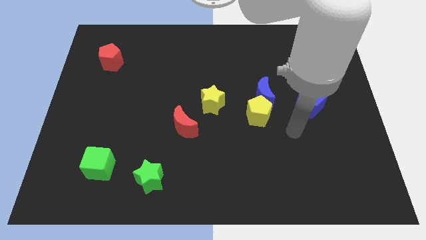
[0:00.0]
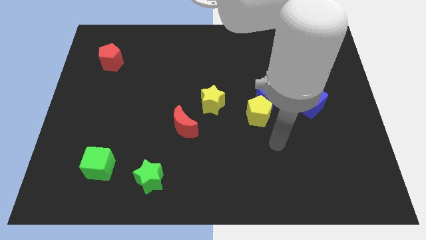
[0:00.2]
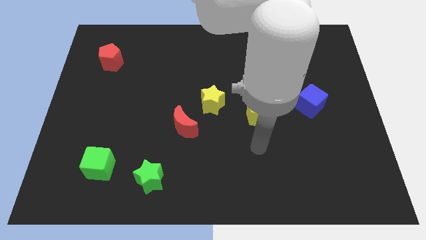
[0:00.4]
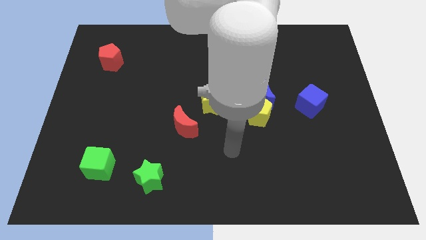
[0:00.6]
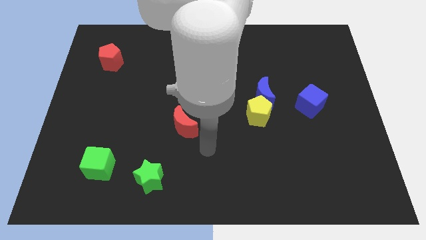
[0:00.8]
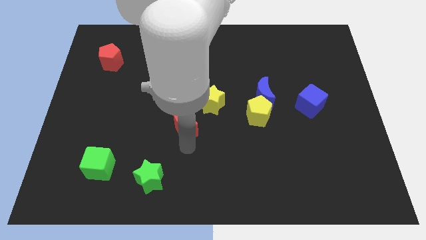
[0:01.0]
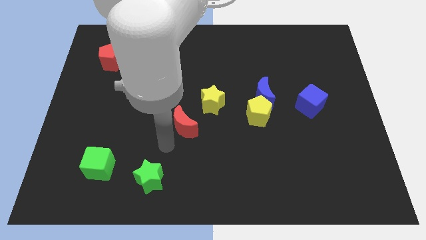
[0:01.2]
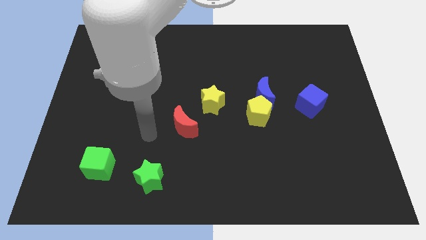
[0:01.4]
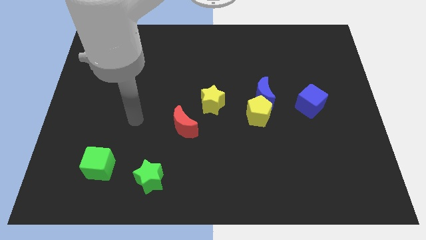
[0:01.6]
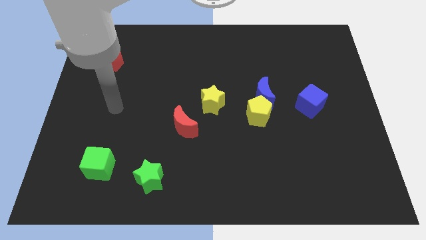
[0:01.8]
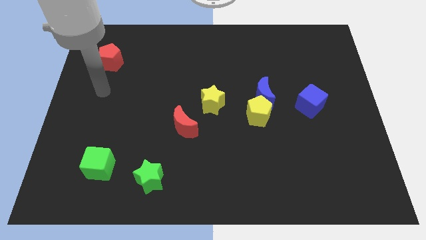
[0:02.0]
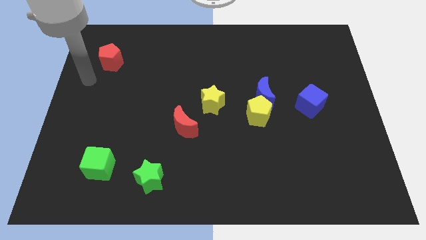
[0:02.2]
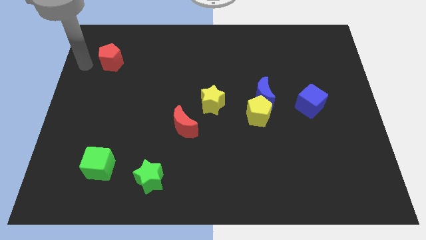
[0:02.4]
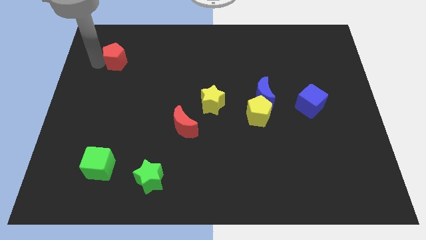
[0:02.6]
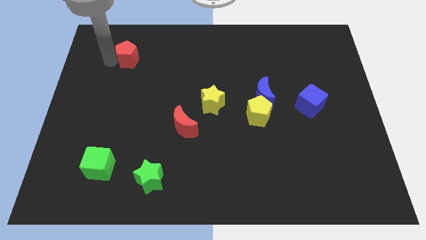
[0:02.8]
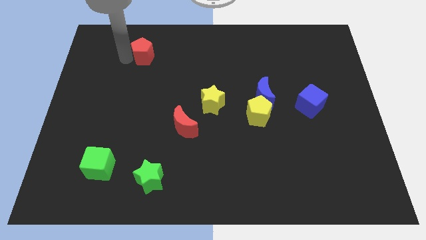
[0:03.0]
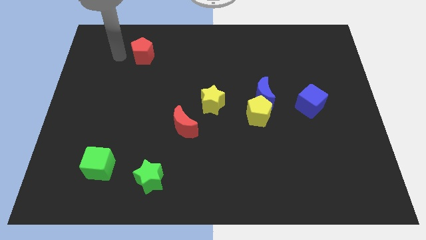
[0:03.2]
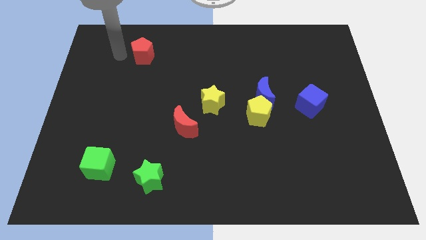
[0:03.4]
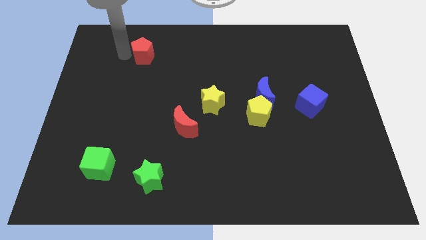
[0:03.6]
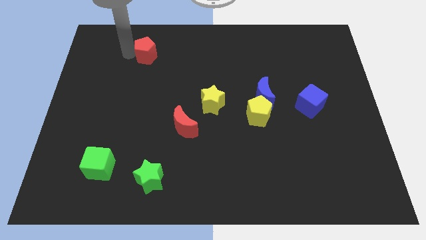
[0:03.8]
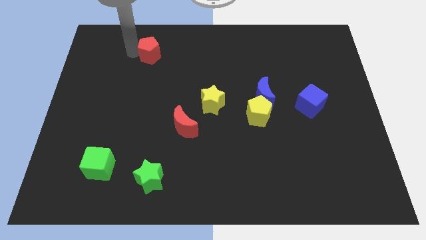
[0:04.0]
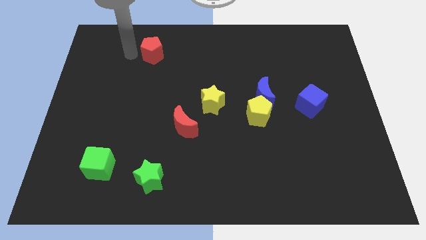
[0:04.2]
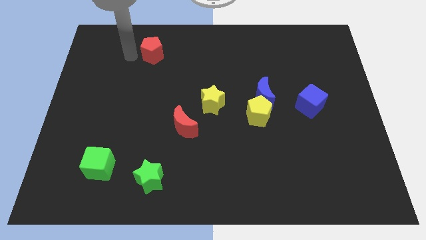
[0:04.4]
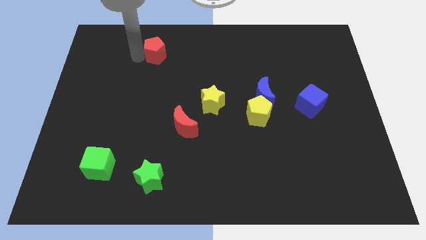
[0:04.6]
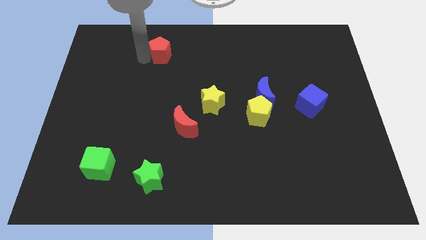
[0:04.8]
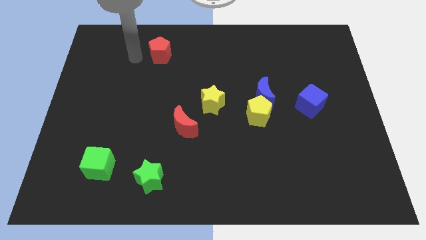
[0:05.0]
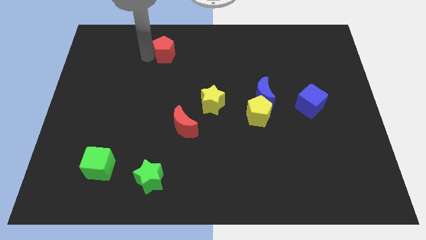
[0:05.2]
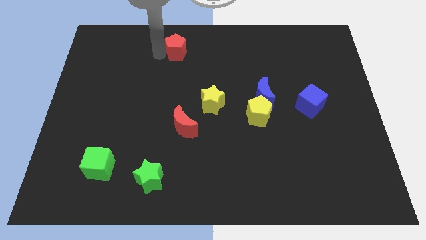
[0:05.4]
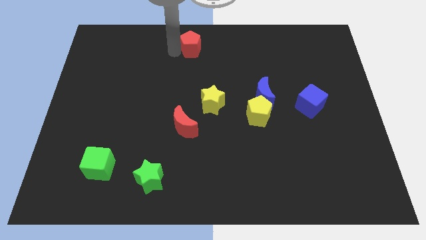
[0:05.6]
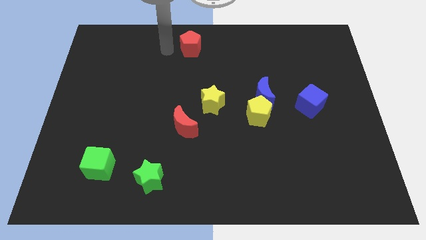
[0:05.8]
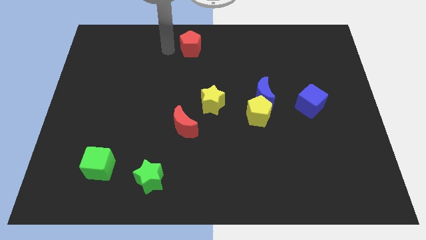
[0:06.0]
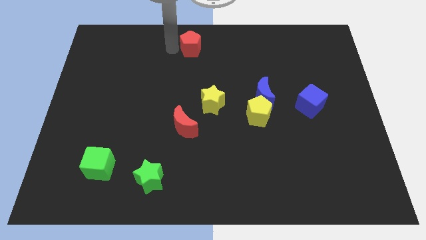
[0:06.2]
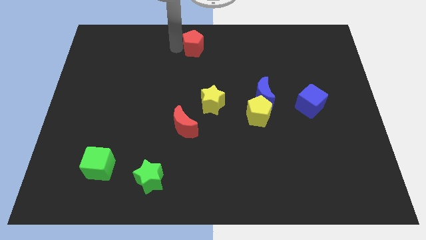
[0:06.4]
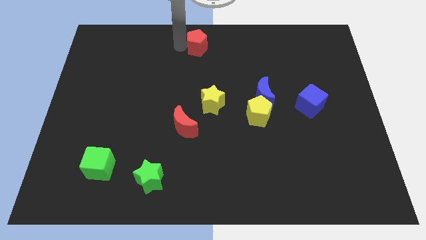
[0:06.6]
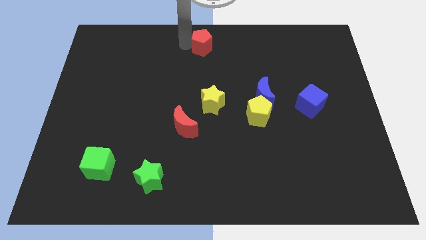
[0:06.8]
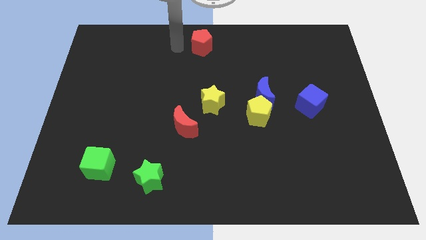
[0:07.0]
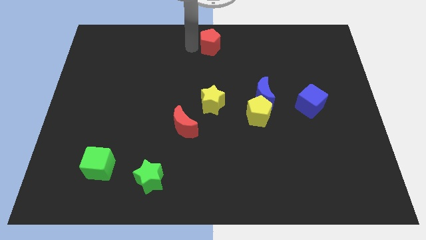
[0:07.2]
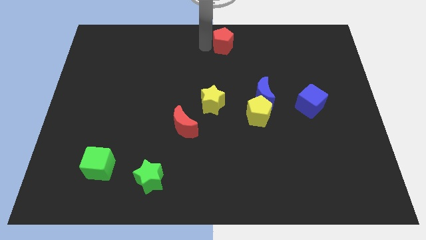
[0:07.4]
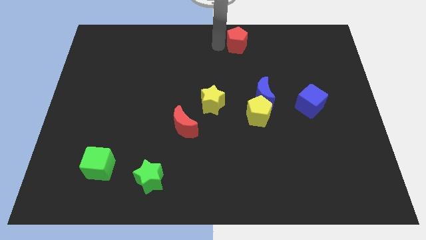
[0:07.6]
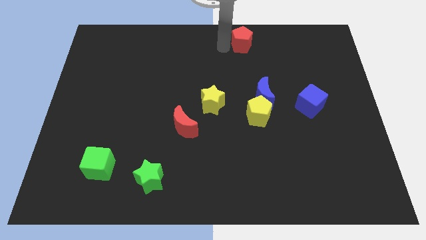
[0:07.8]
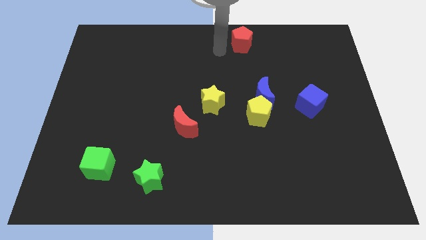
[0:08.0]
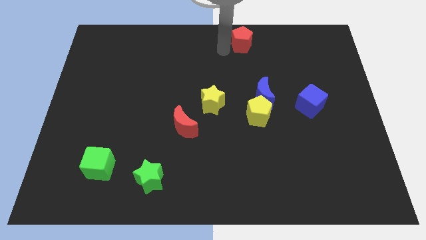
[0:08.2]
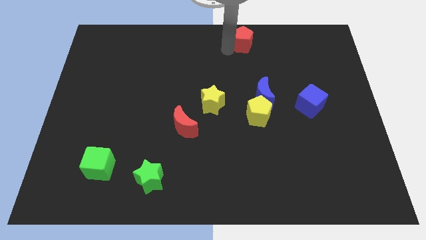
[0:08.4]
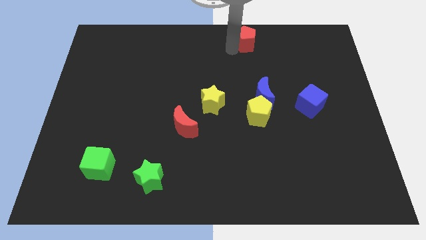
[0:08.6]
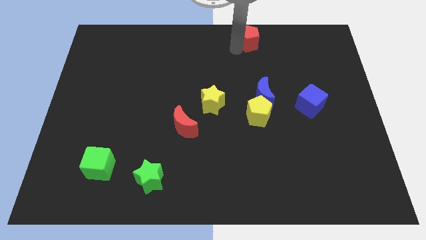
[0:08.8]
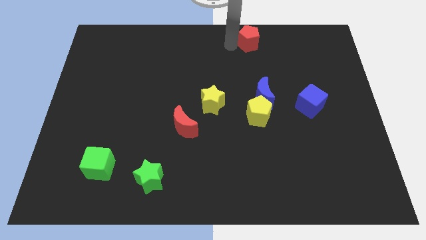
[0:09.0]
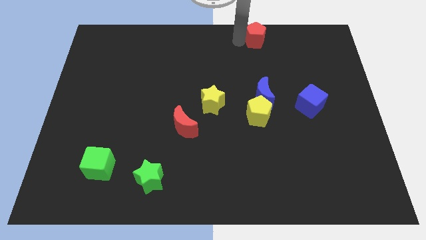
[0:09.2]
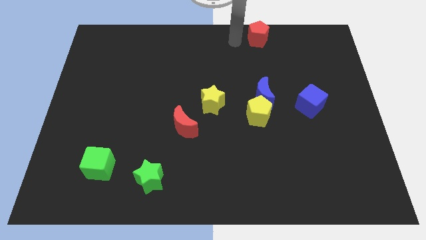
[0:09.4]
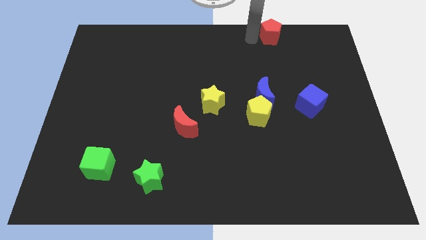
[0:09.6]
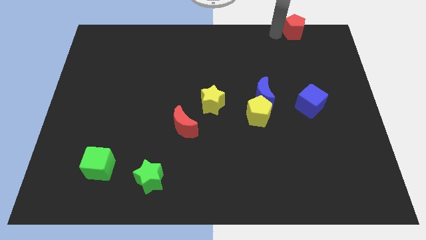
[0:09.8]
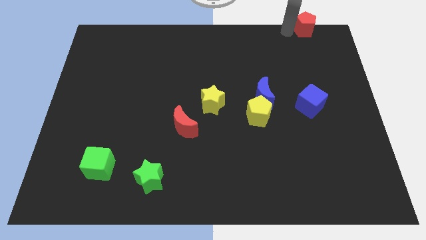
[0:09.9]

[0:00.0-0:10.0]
move the red pentagon to the top right of the board

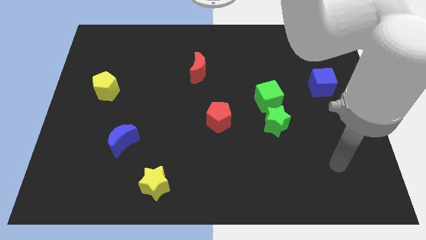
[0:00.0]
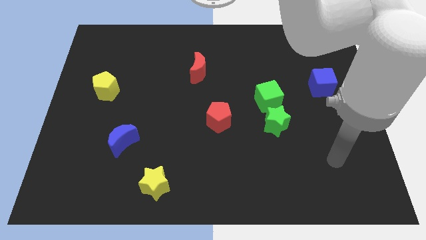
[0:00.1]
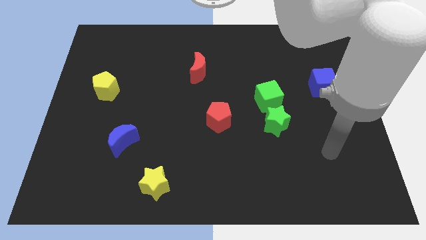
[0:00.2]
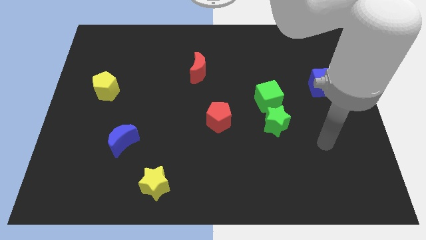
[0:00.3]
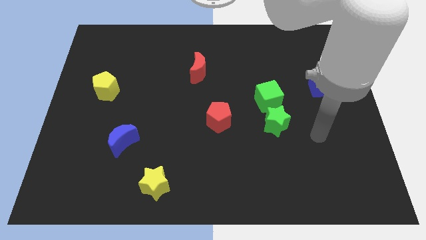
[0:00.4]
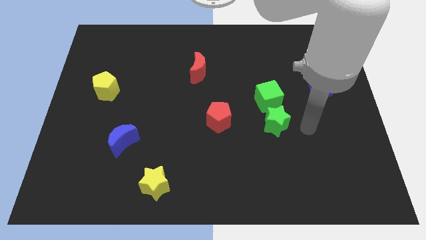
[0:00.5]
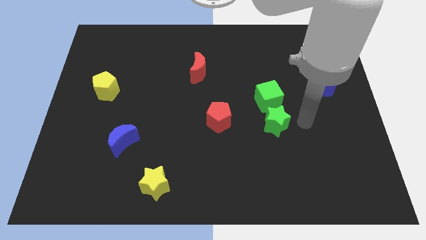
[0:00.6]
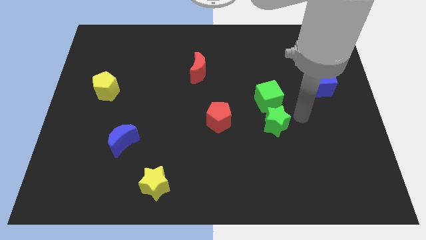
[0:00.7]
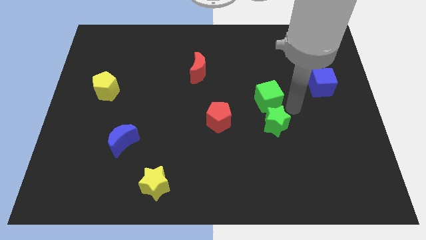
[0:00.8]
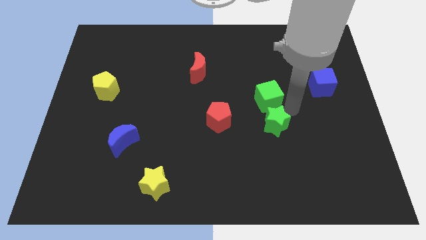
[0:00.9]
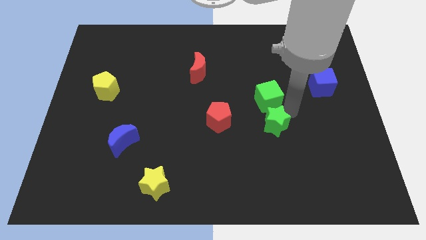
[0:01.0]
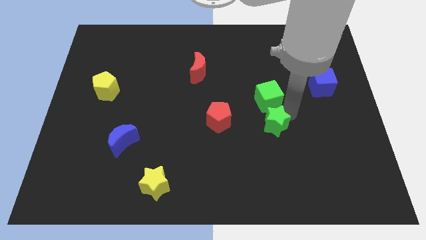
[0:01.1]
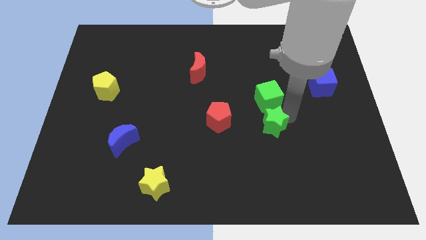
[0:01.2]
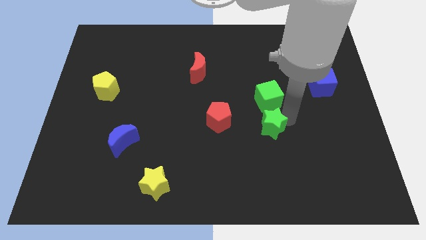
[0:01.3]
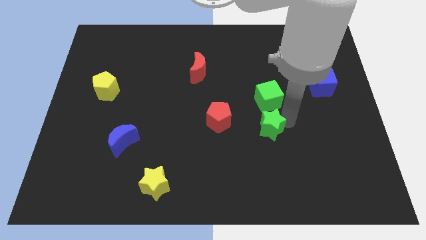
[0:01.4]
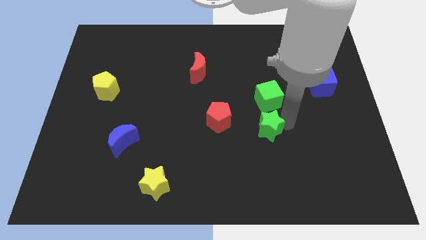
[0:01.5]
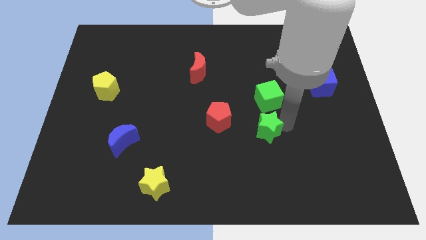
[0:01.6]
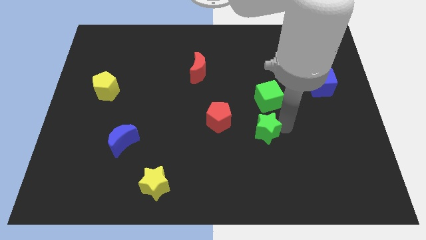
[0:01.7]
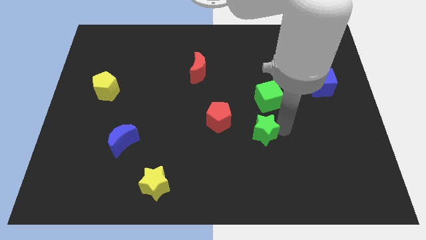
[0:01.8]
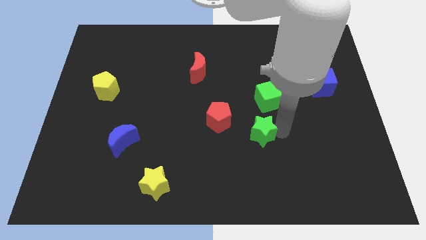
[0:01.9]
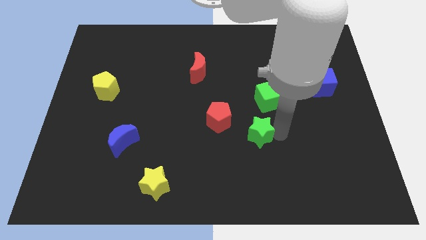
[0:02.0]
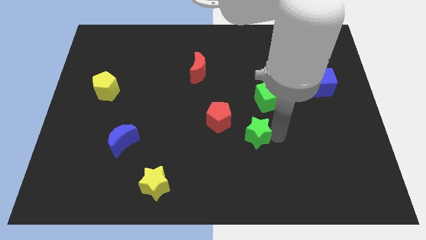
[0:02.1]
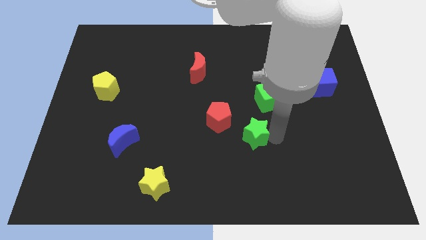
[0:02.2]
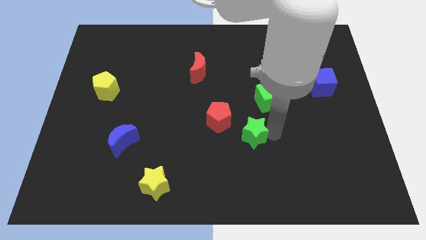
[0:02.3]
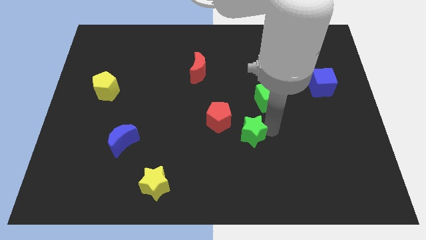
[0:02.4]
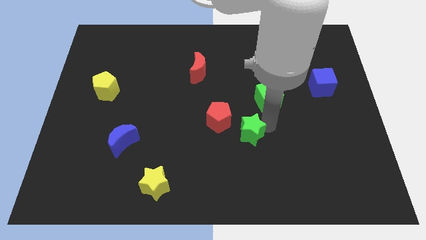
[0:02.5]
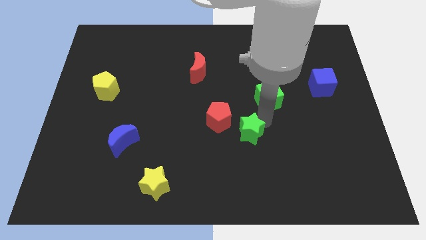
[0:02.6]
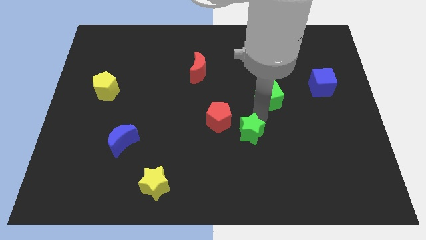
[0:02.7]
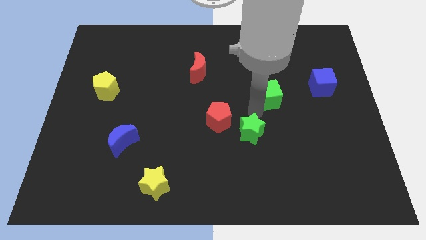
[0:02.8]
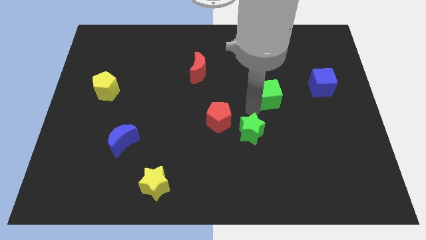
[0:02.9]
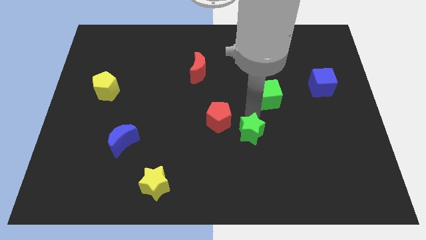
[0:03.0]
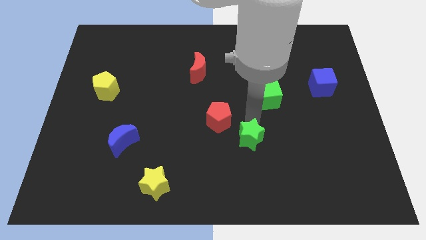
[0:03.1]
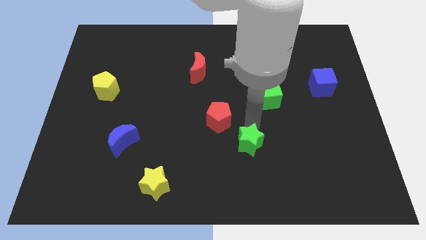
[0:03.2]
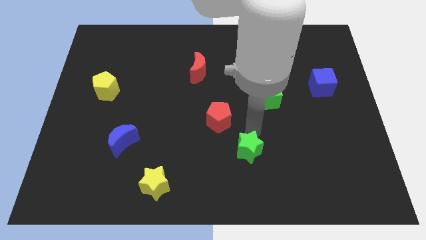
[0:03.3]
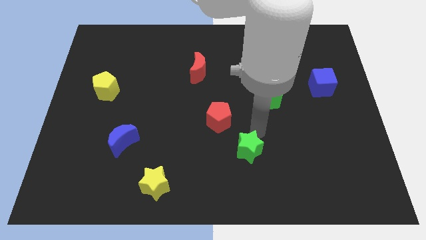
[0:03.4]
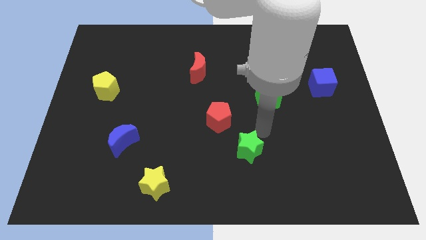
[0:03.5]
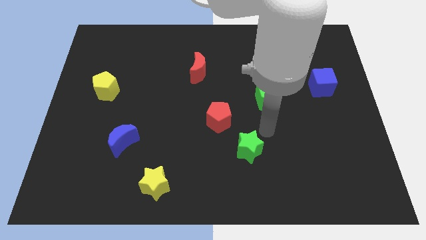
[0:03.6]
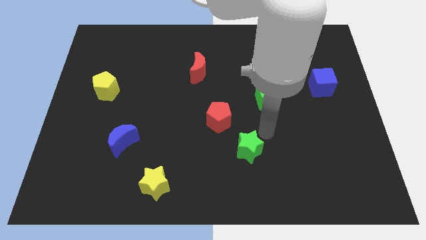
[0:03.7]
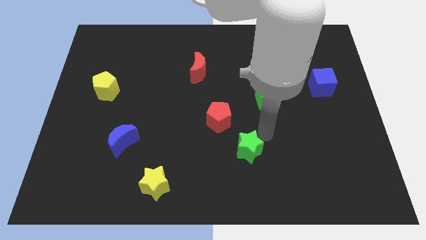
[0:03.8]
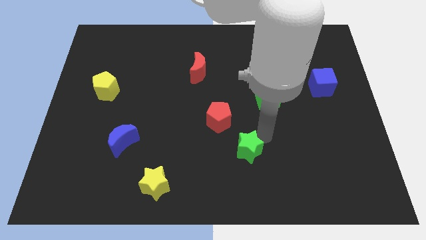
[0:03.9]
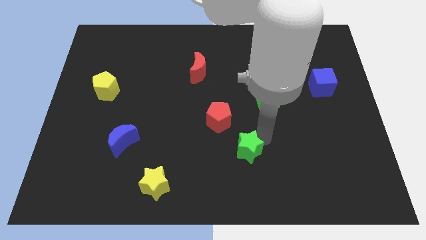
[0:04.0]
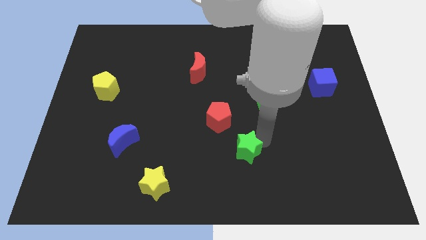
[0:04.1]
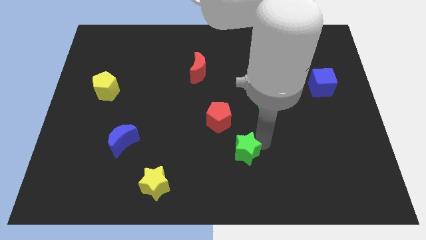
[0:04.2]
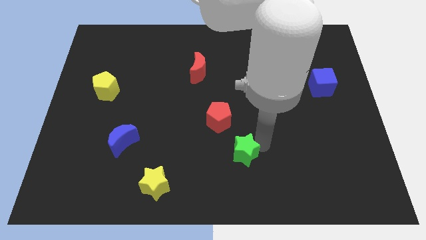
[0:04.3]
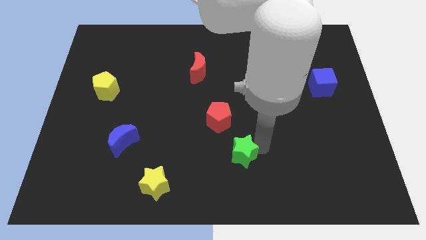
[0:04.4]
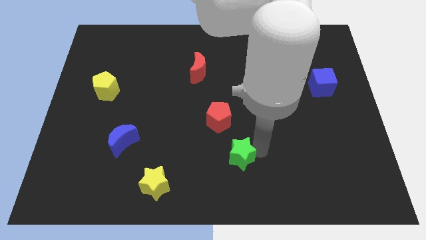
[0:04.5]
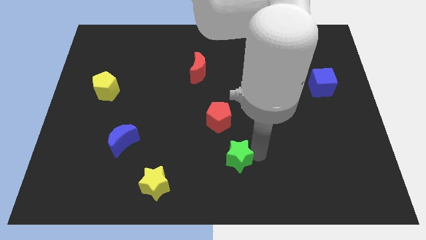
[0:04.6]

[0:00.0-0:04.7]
put the green star to the bottom
